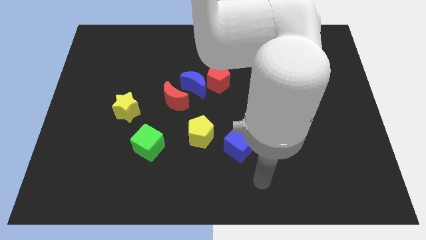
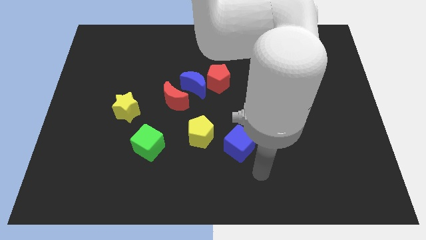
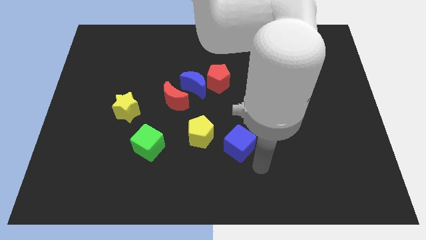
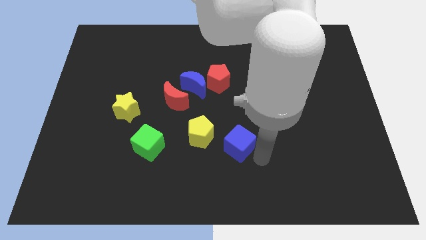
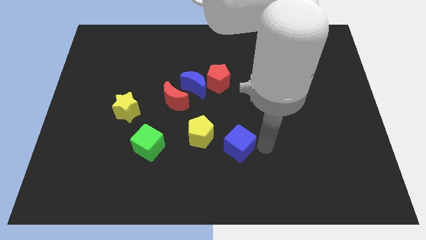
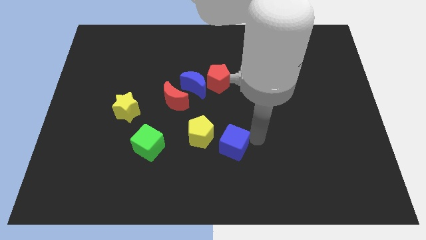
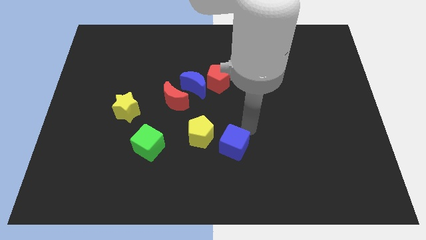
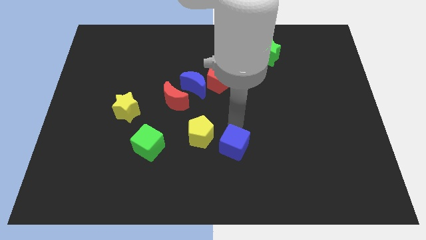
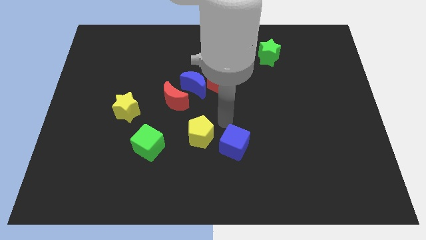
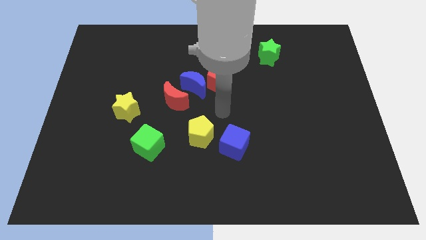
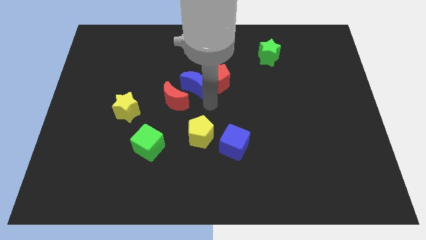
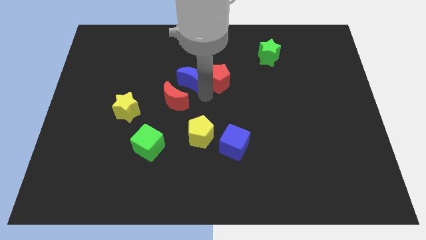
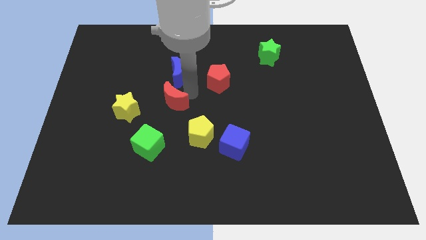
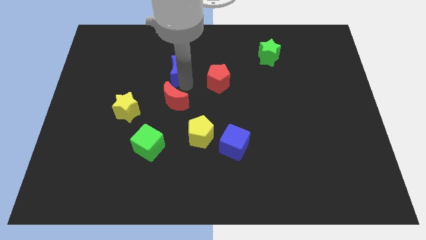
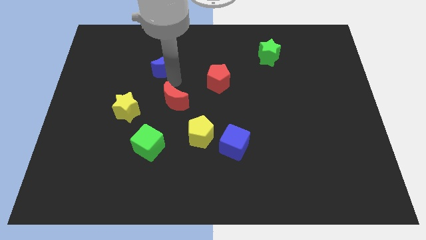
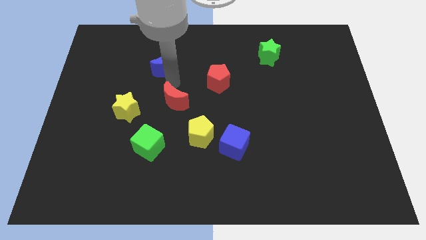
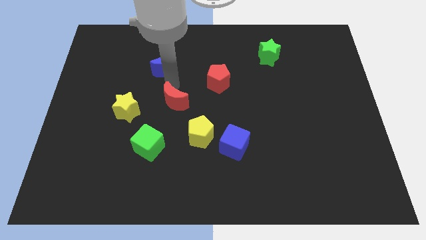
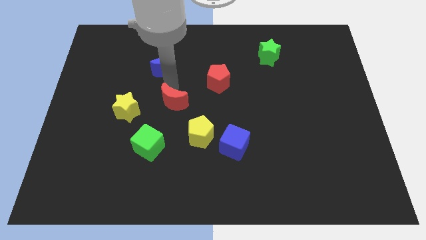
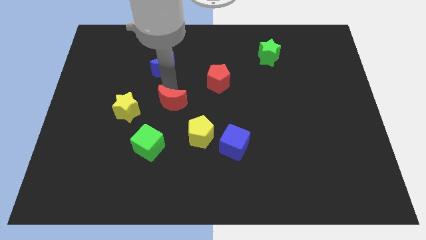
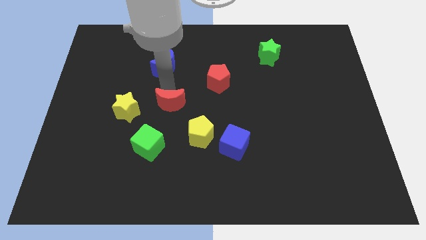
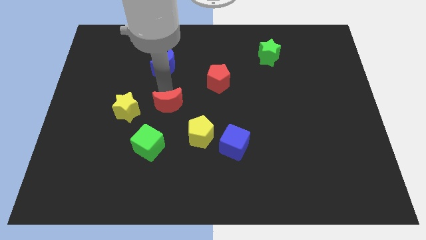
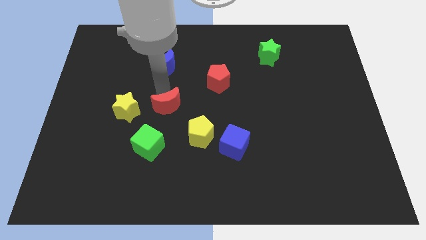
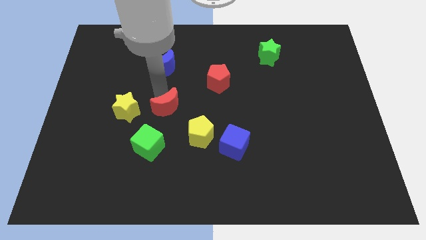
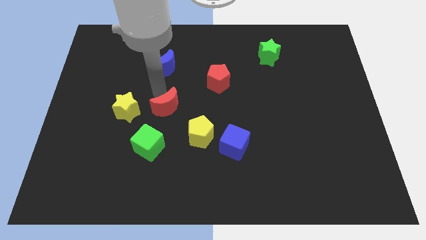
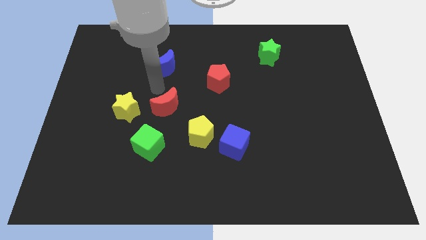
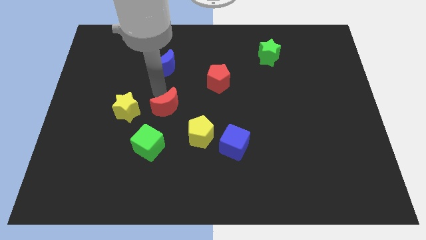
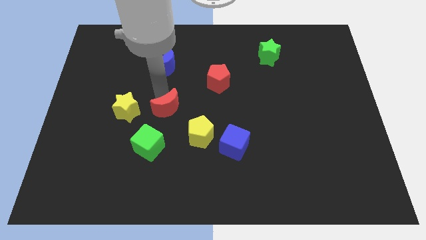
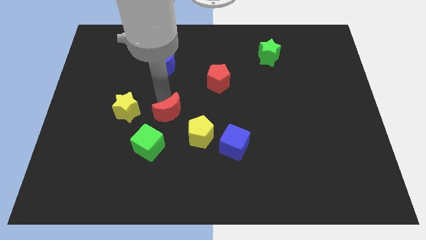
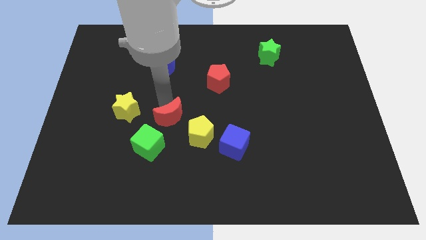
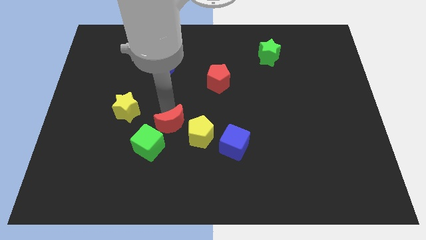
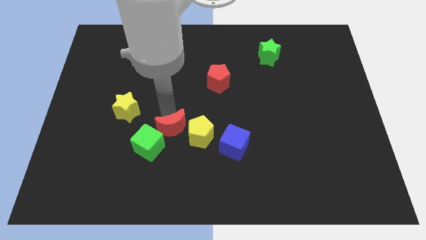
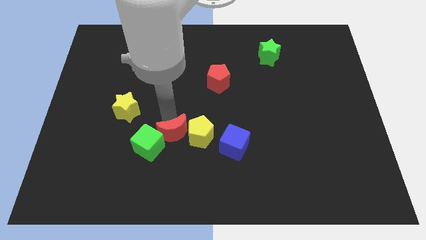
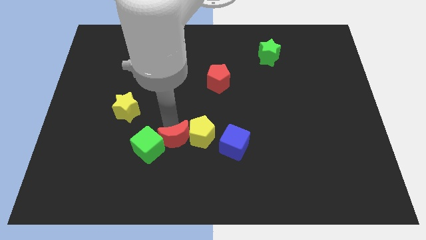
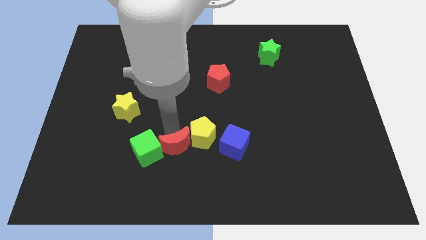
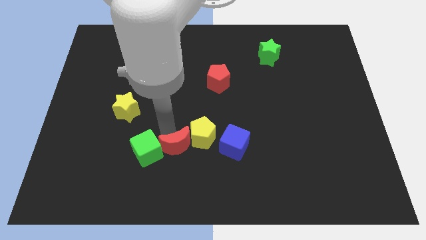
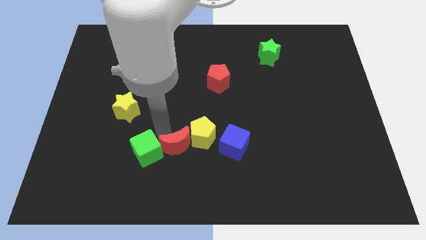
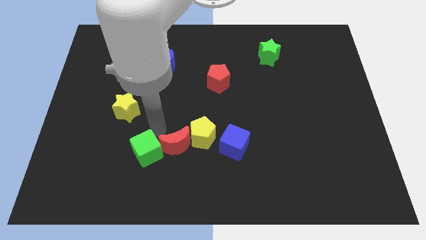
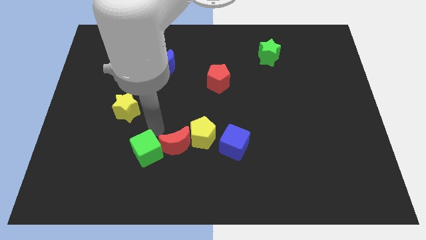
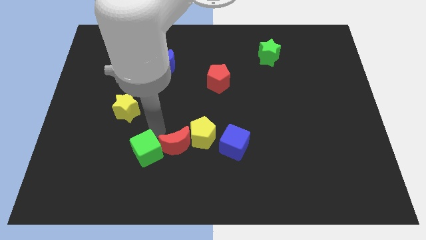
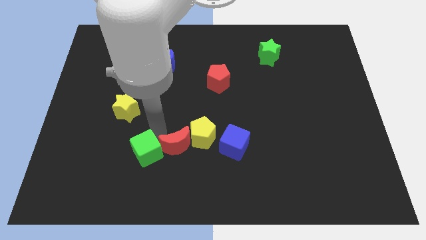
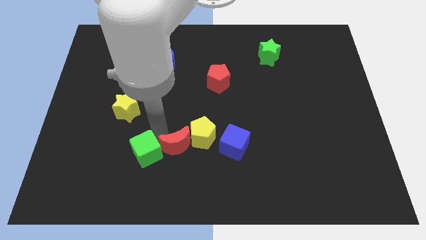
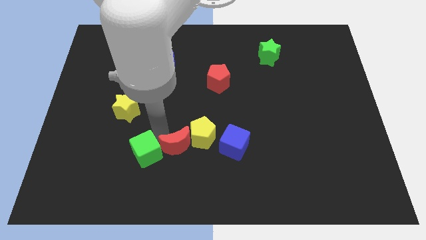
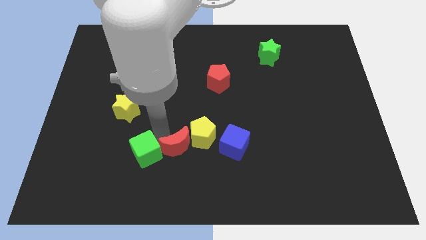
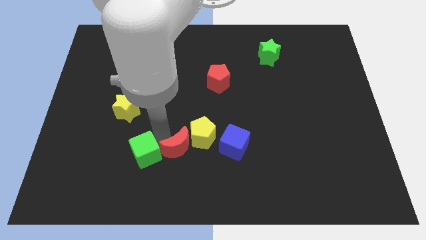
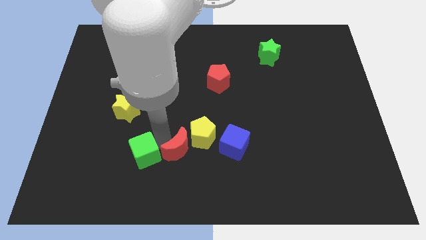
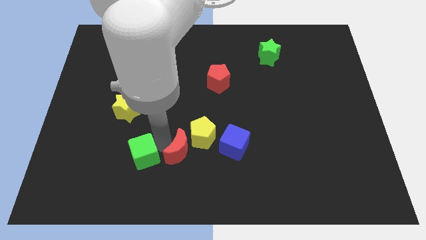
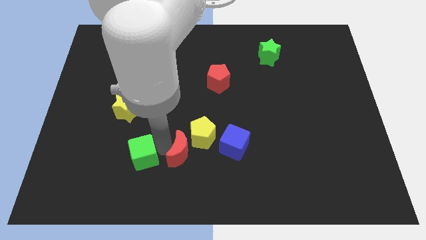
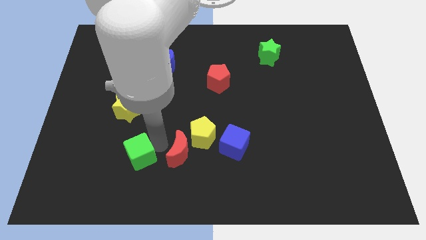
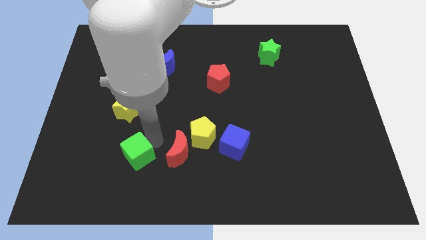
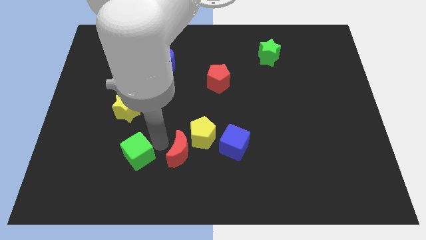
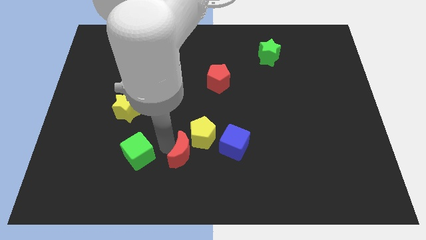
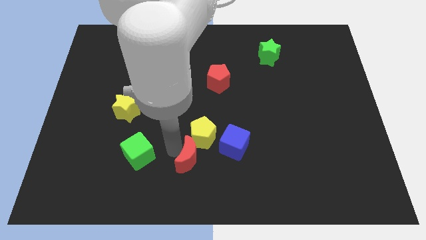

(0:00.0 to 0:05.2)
push the red moon to the bottom left side of the blue cube

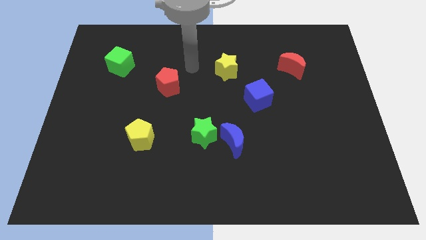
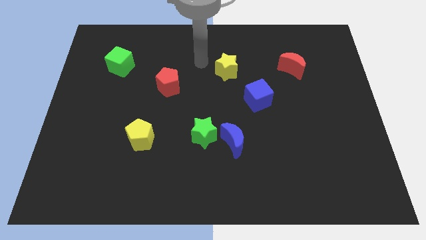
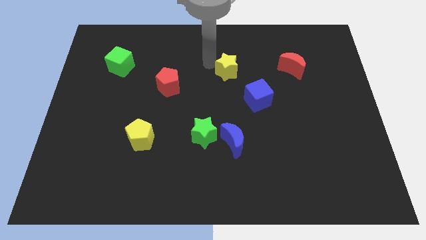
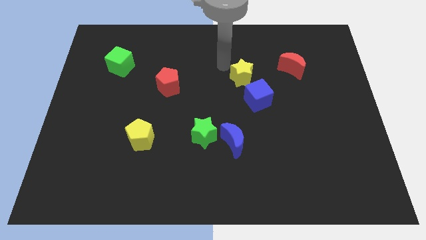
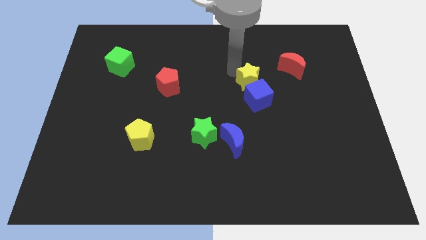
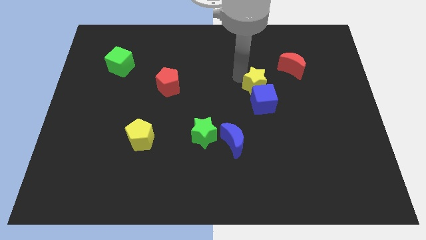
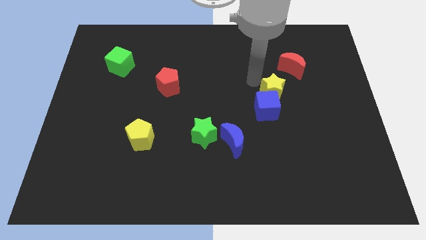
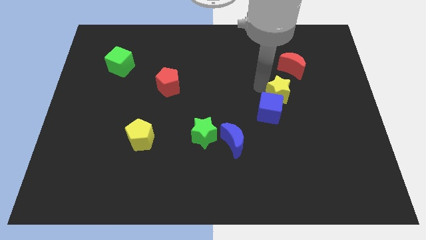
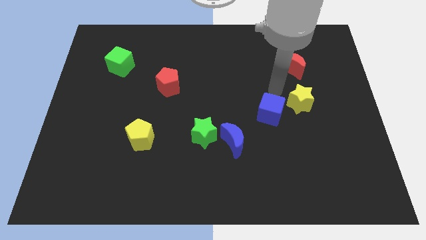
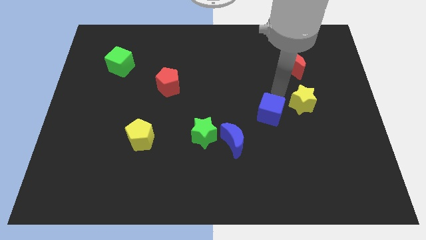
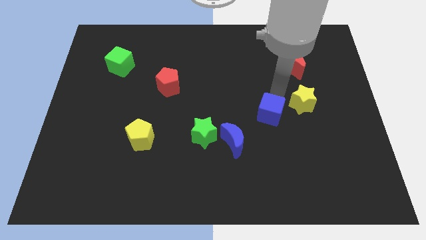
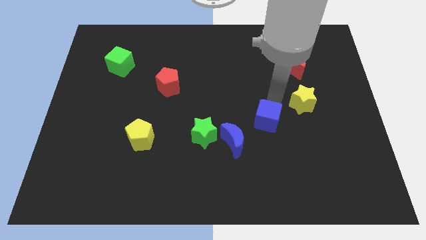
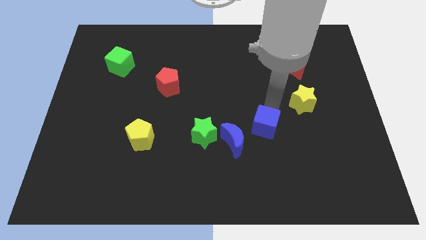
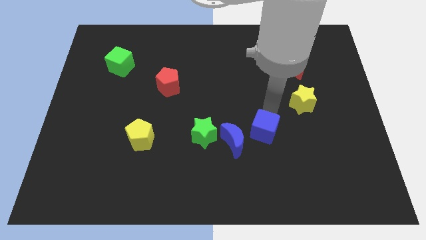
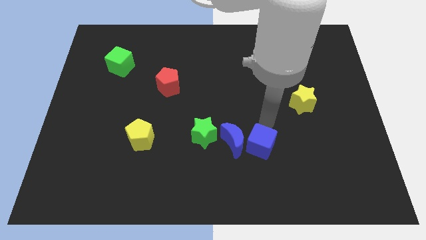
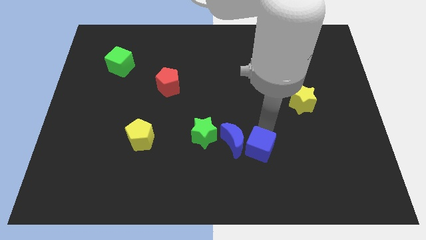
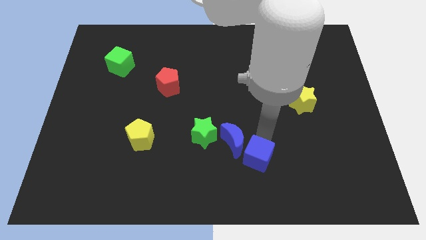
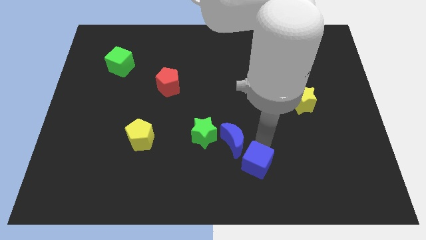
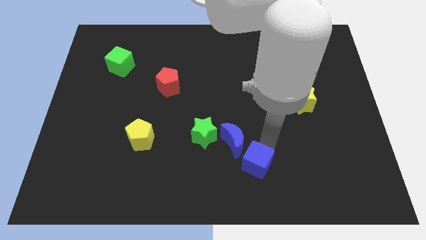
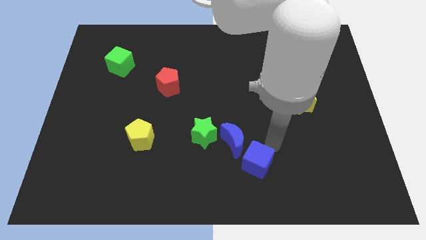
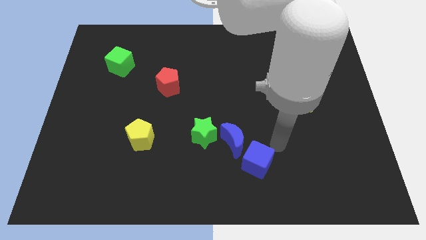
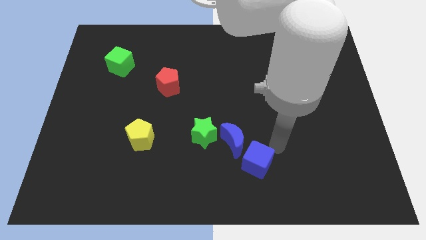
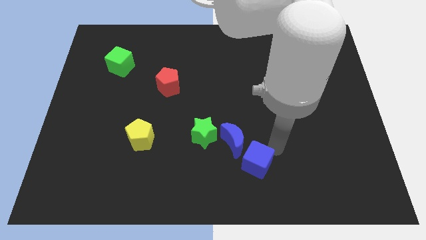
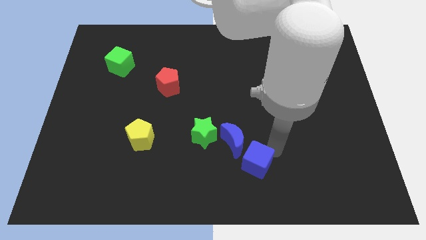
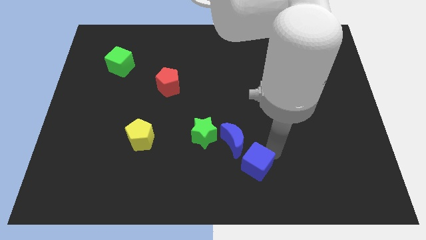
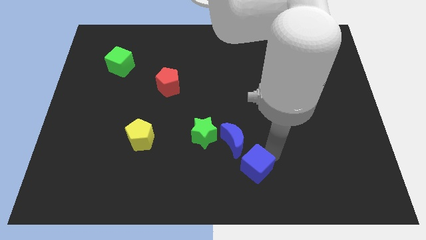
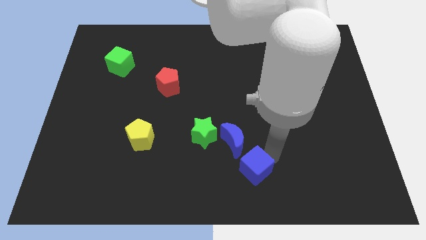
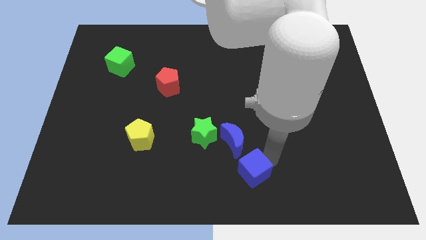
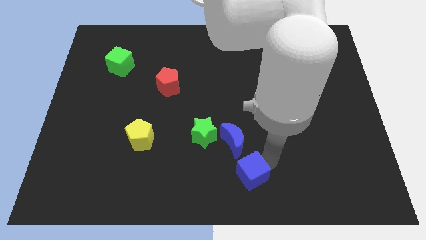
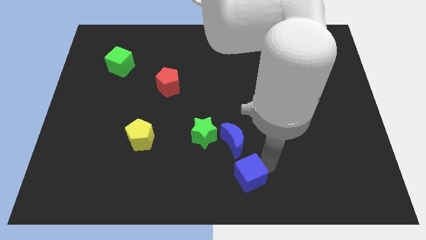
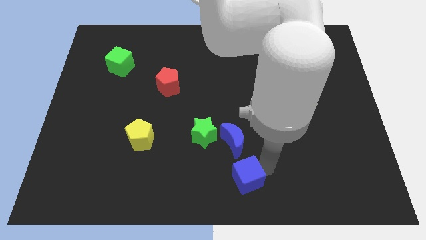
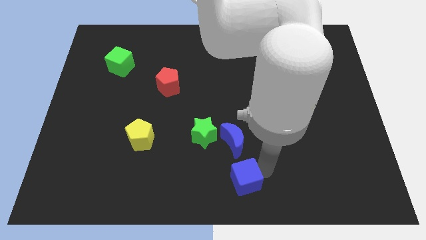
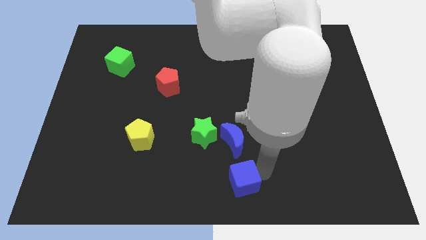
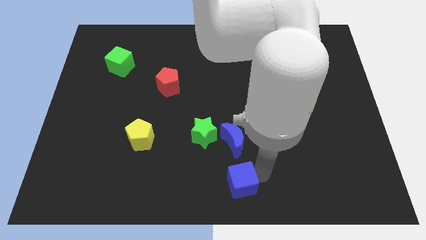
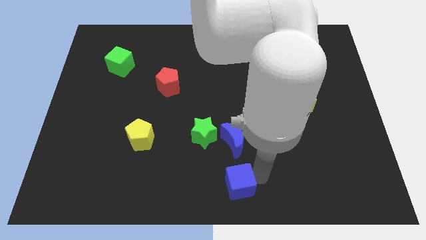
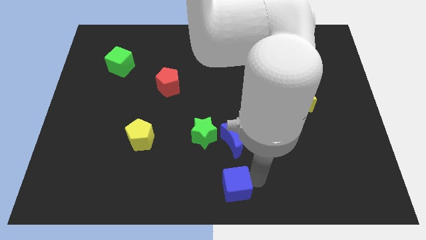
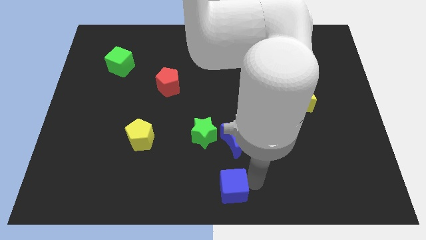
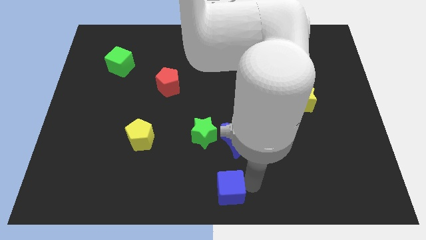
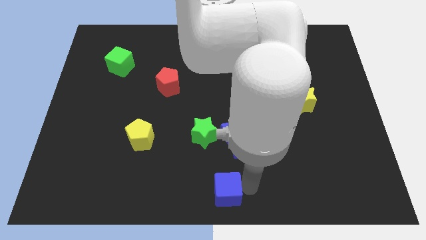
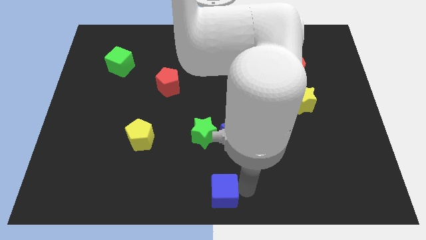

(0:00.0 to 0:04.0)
push the blue cube below the green star
